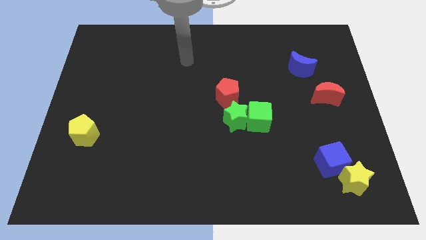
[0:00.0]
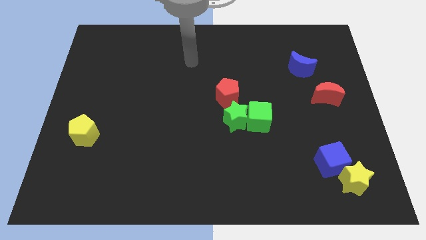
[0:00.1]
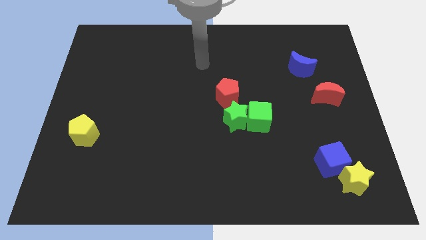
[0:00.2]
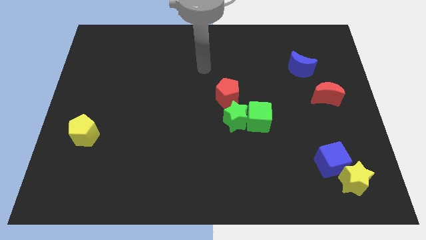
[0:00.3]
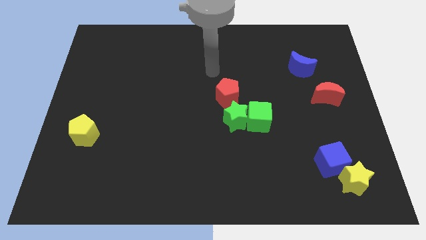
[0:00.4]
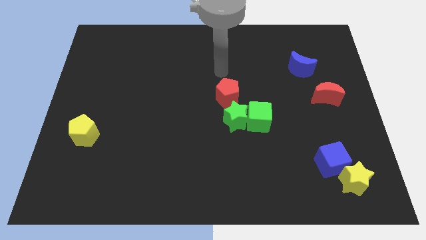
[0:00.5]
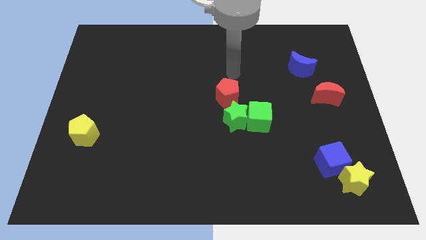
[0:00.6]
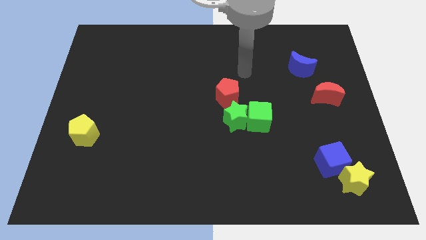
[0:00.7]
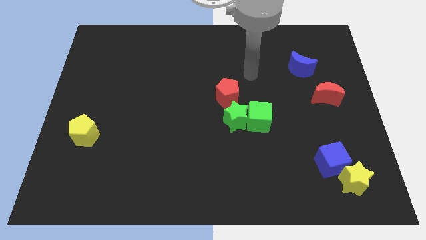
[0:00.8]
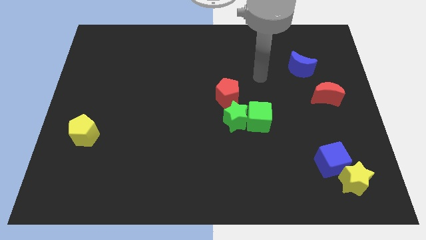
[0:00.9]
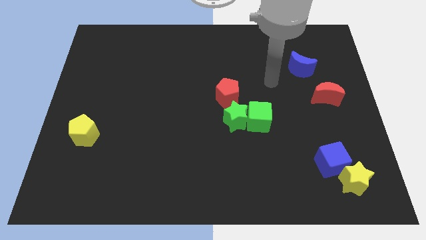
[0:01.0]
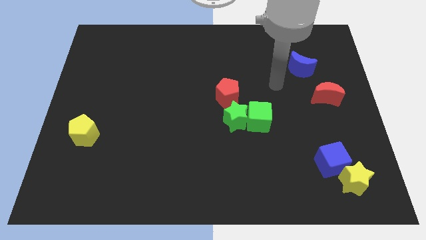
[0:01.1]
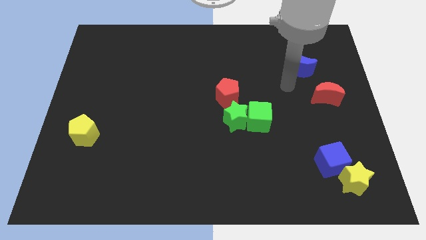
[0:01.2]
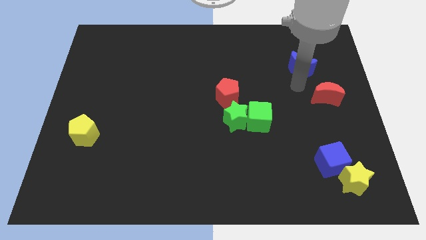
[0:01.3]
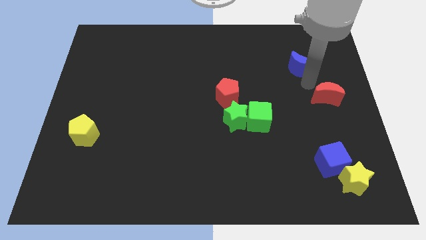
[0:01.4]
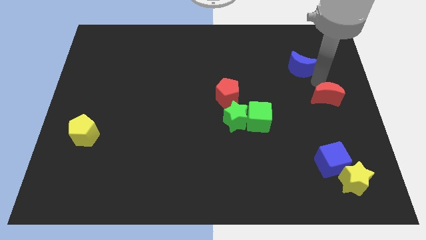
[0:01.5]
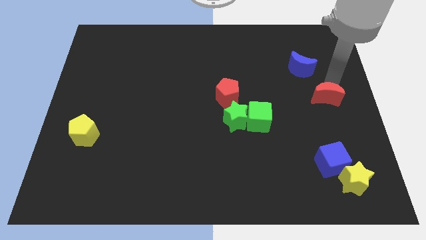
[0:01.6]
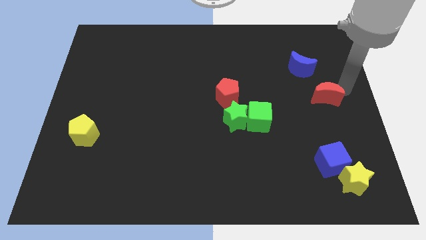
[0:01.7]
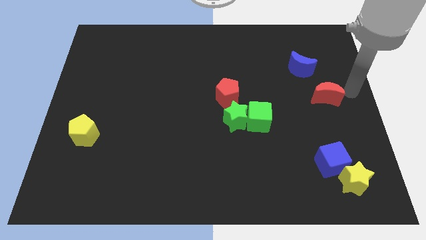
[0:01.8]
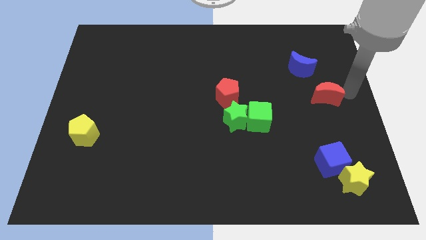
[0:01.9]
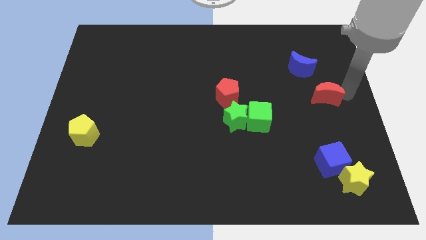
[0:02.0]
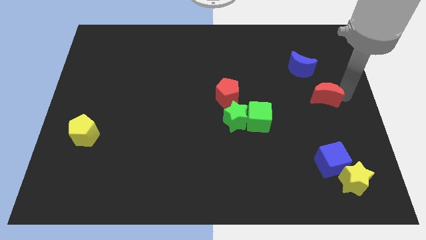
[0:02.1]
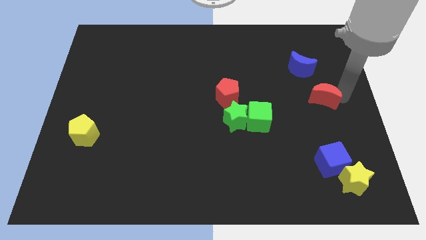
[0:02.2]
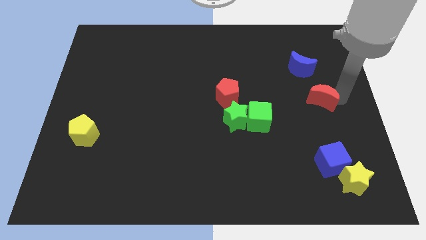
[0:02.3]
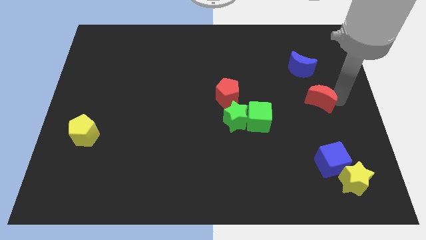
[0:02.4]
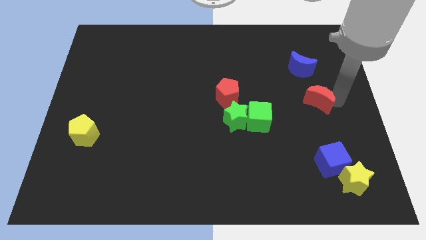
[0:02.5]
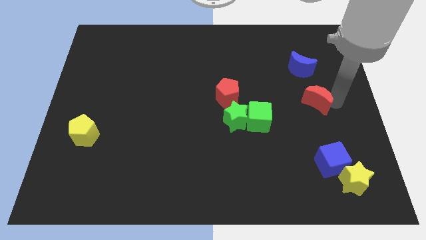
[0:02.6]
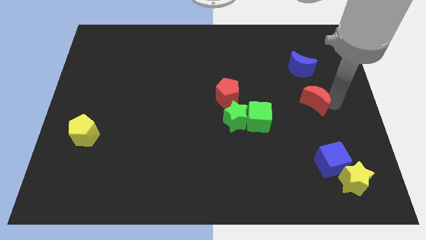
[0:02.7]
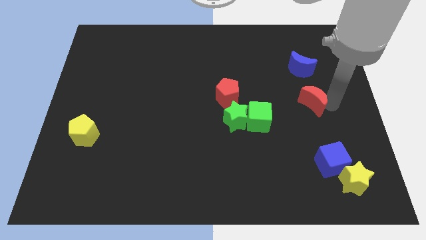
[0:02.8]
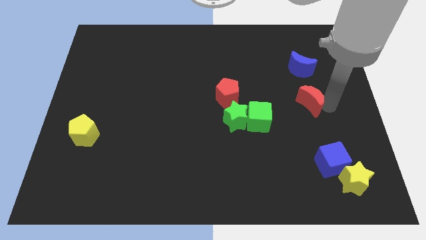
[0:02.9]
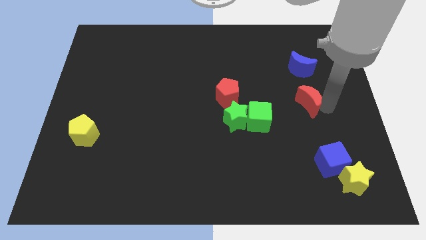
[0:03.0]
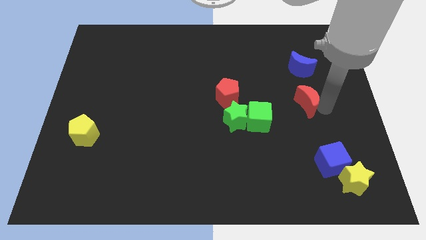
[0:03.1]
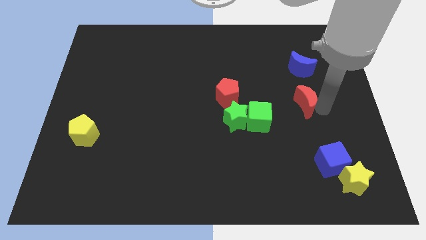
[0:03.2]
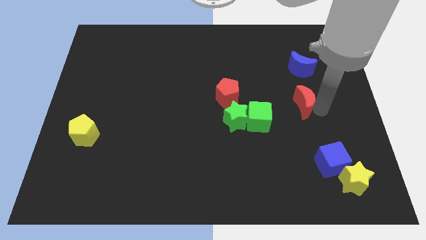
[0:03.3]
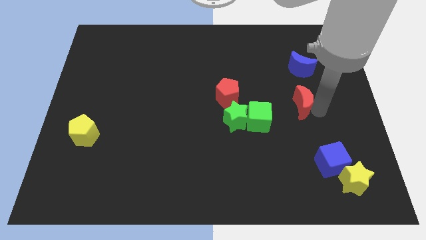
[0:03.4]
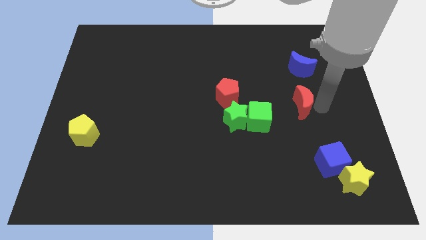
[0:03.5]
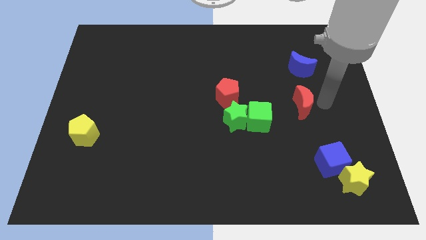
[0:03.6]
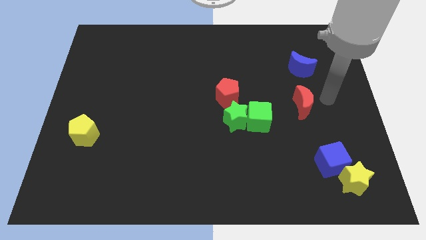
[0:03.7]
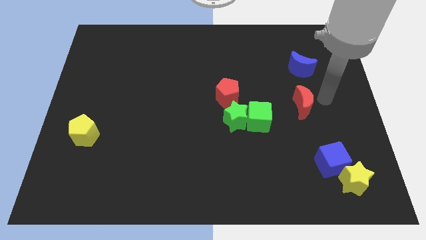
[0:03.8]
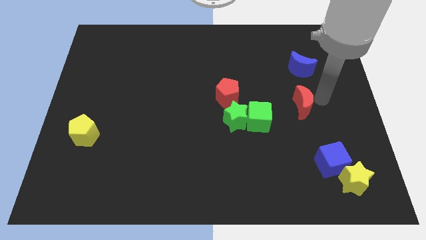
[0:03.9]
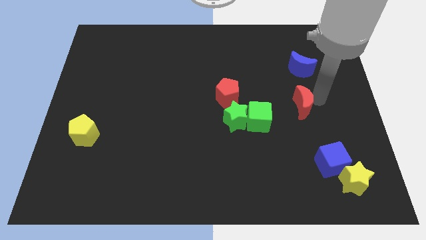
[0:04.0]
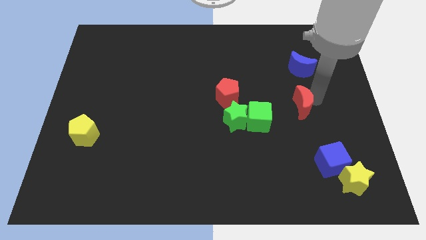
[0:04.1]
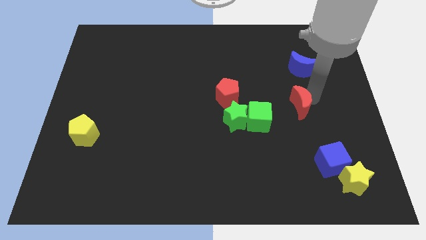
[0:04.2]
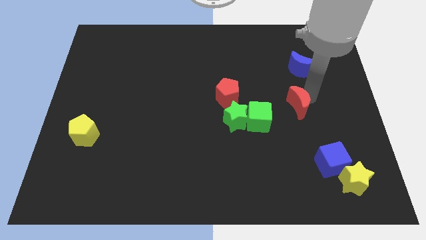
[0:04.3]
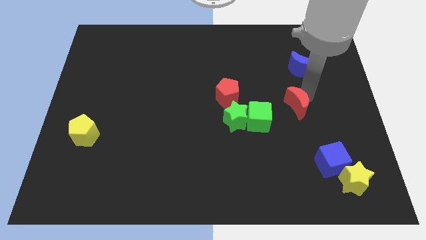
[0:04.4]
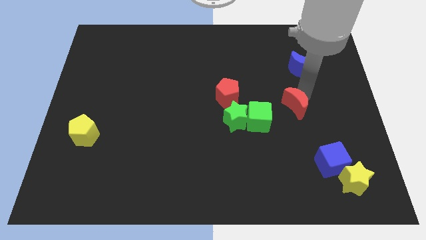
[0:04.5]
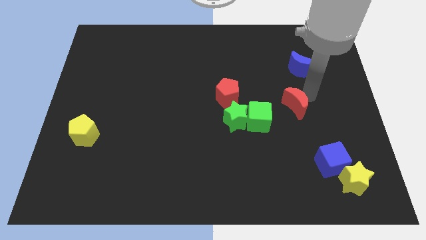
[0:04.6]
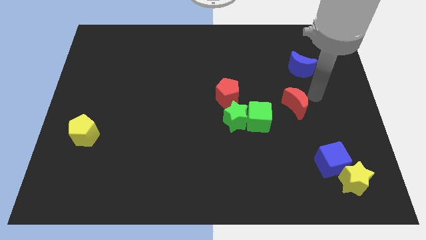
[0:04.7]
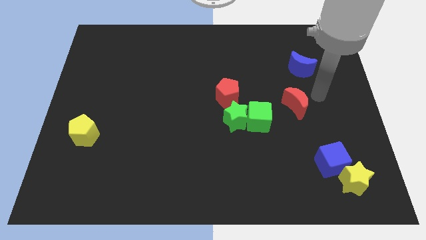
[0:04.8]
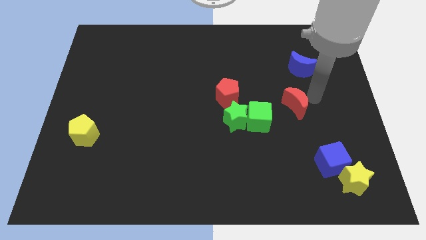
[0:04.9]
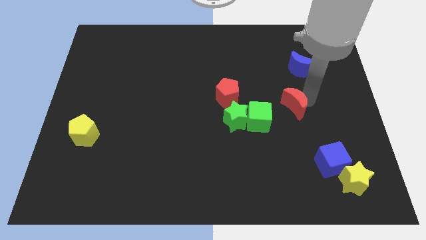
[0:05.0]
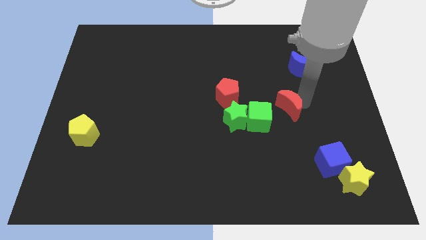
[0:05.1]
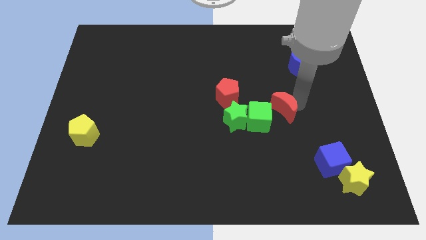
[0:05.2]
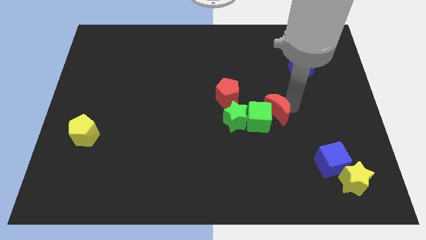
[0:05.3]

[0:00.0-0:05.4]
put the red moon close to the green cube

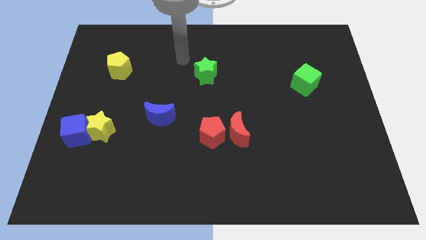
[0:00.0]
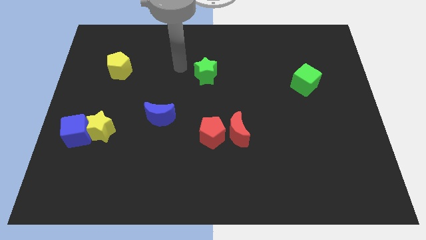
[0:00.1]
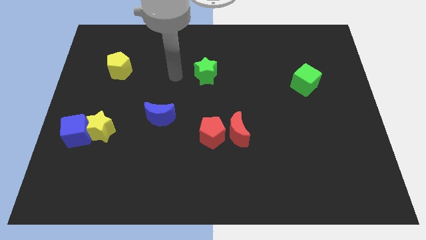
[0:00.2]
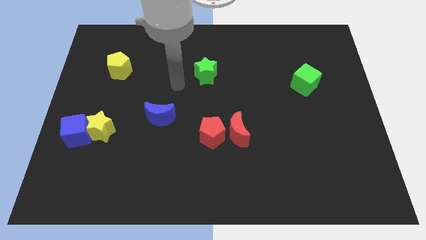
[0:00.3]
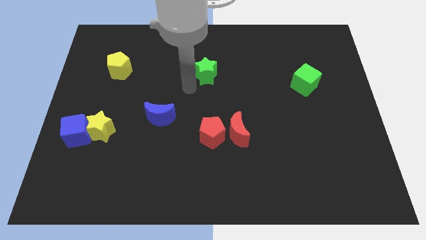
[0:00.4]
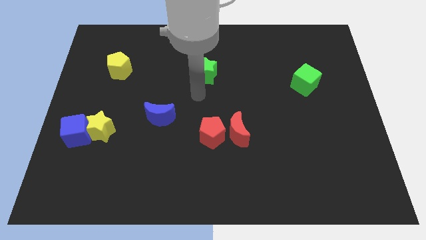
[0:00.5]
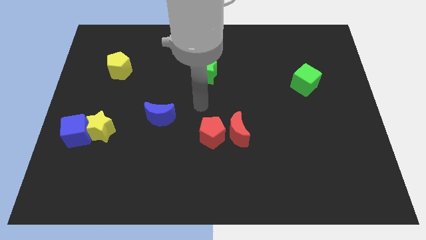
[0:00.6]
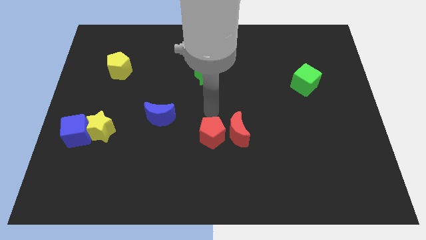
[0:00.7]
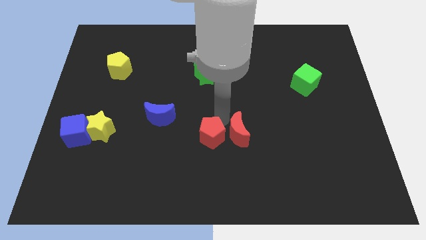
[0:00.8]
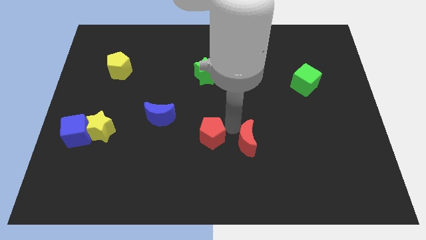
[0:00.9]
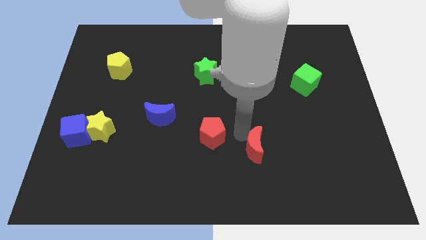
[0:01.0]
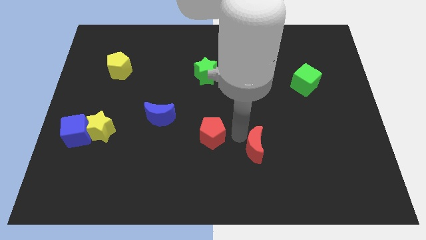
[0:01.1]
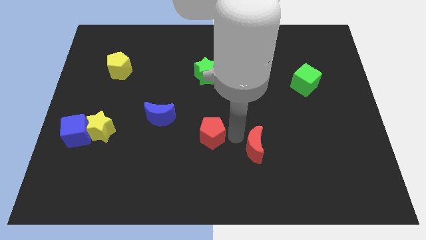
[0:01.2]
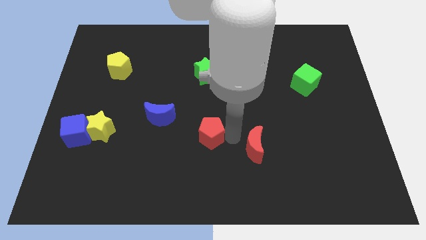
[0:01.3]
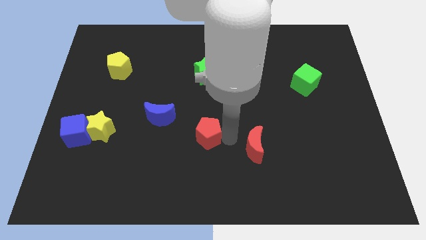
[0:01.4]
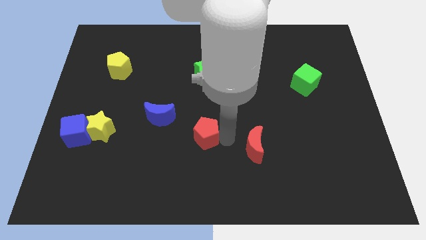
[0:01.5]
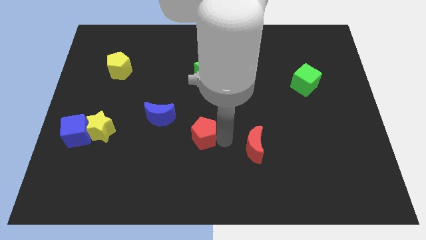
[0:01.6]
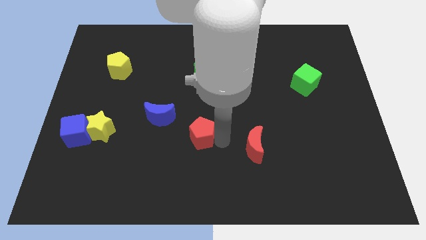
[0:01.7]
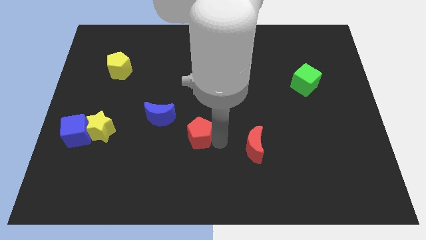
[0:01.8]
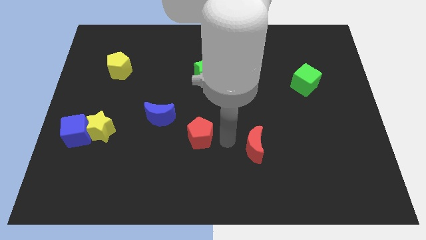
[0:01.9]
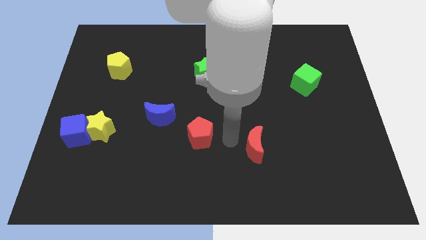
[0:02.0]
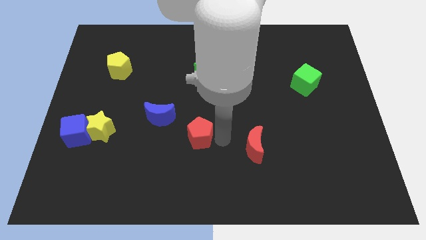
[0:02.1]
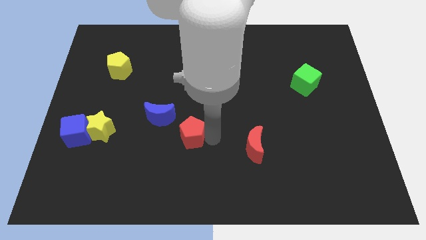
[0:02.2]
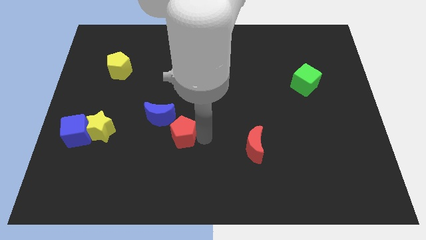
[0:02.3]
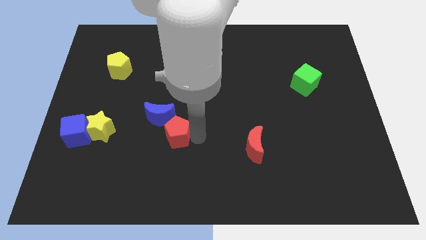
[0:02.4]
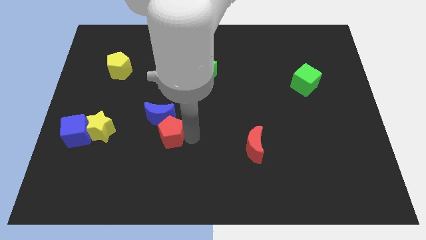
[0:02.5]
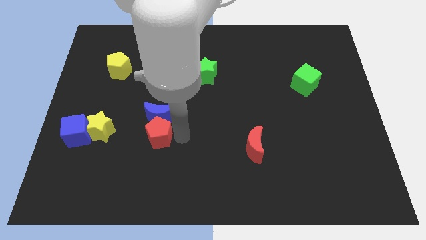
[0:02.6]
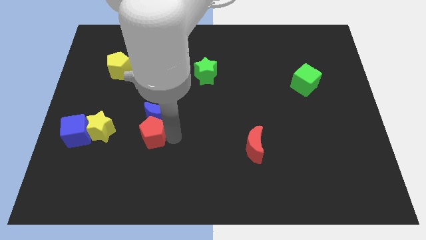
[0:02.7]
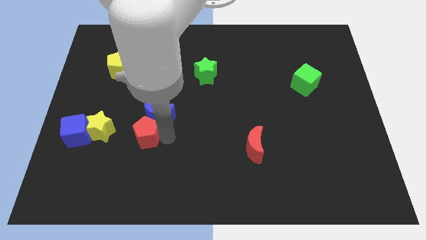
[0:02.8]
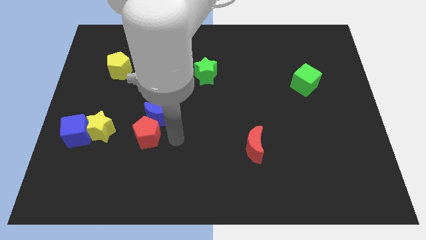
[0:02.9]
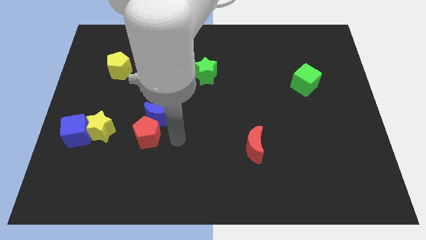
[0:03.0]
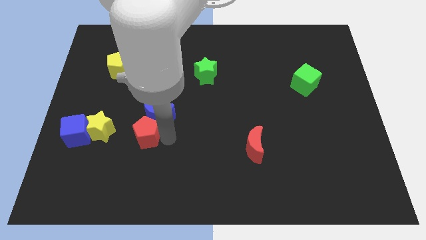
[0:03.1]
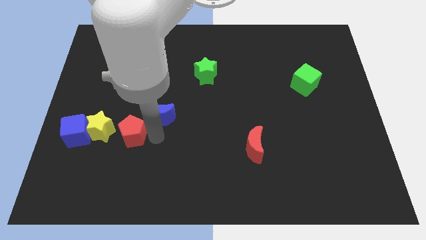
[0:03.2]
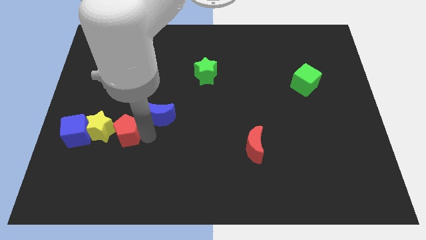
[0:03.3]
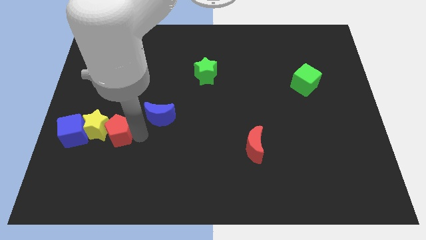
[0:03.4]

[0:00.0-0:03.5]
move the red pentagon close to the yellow star
